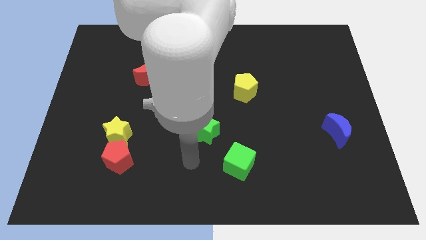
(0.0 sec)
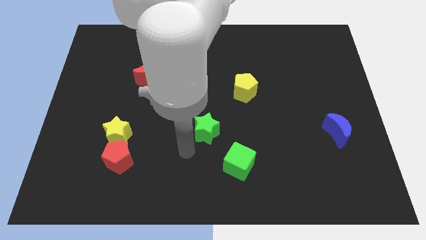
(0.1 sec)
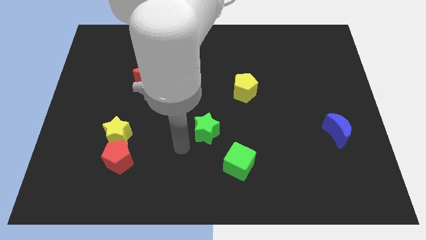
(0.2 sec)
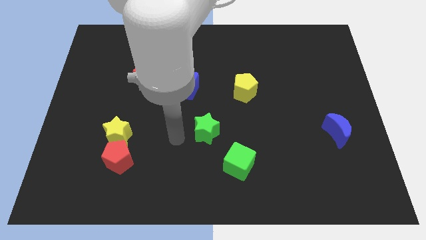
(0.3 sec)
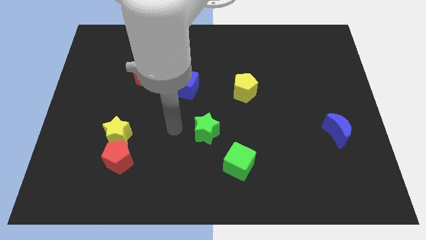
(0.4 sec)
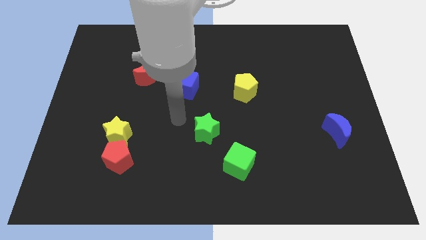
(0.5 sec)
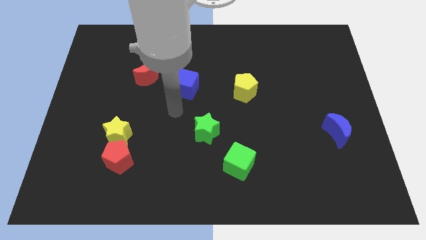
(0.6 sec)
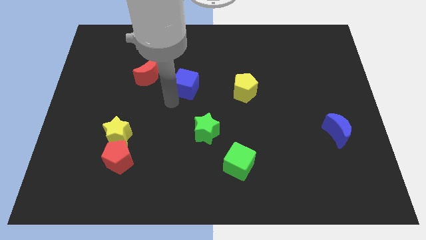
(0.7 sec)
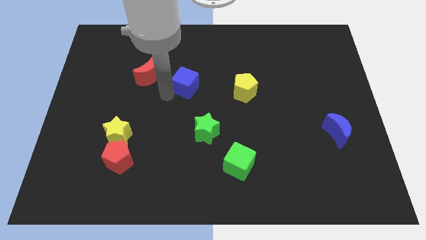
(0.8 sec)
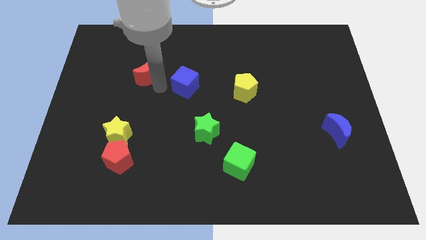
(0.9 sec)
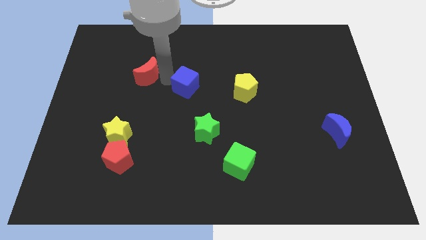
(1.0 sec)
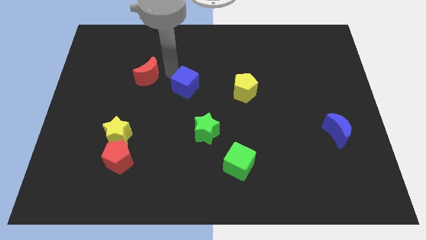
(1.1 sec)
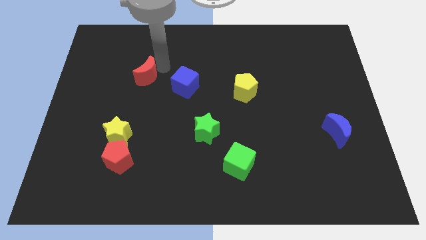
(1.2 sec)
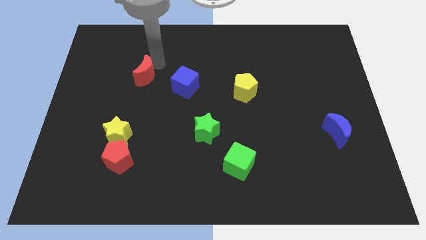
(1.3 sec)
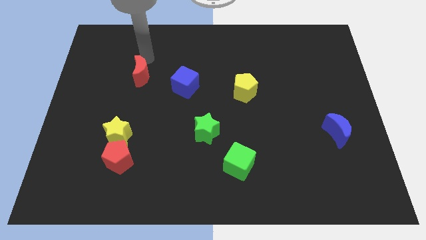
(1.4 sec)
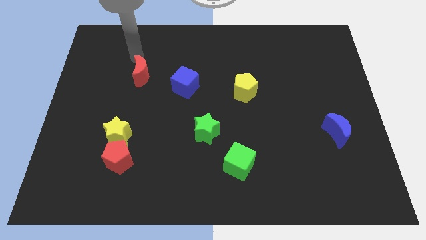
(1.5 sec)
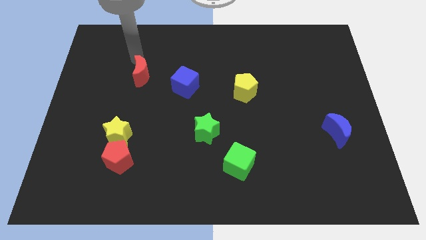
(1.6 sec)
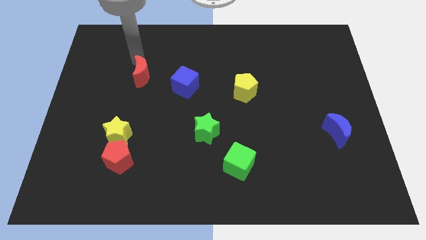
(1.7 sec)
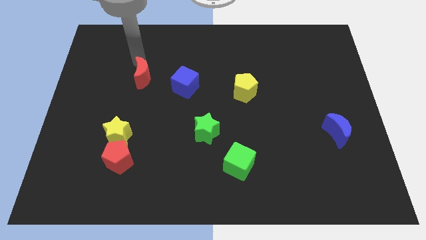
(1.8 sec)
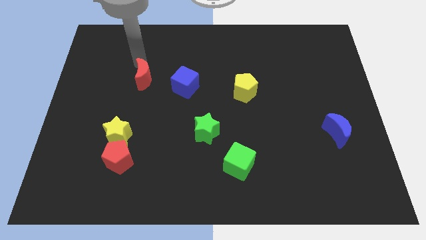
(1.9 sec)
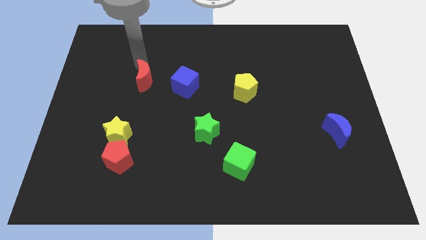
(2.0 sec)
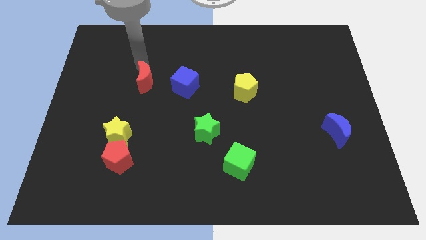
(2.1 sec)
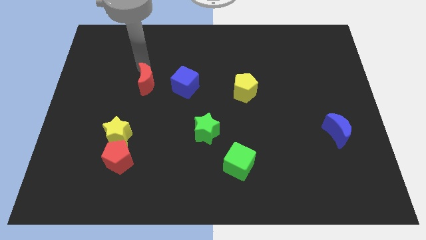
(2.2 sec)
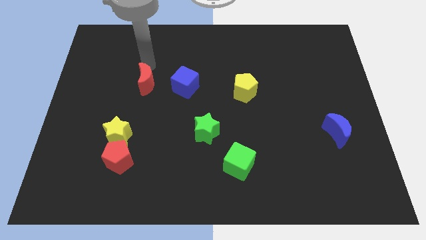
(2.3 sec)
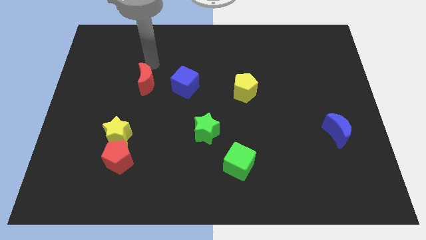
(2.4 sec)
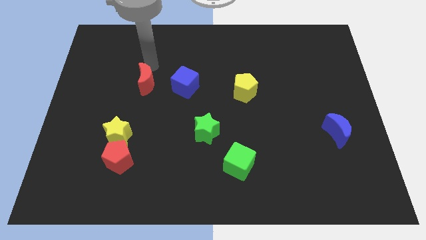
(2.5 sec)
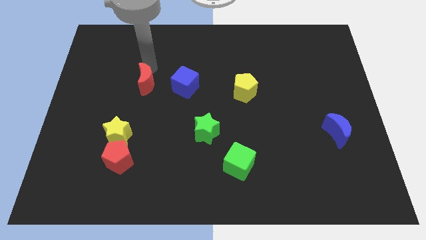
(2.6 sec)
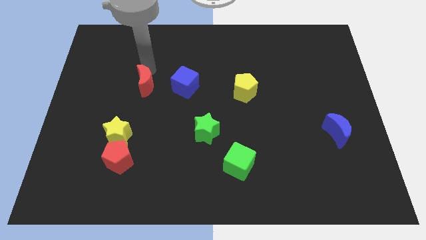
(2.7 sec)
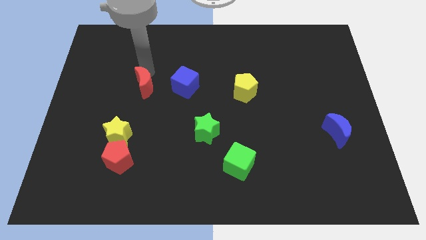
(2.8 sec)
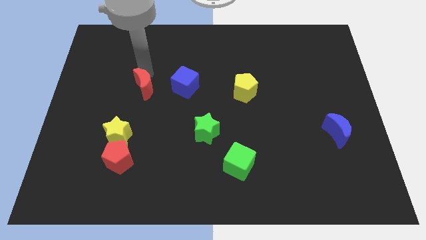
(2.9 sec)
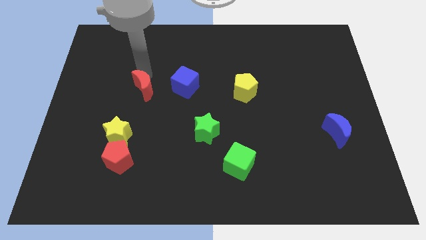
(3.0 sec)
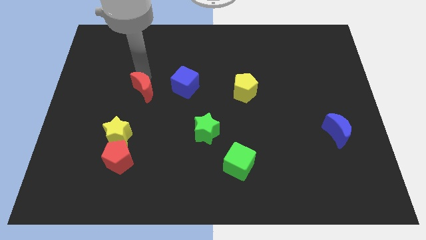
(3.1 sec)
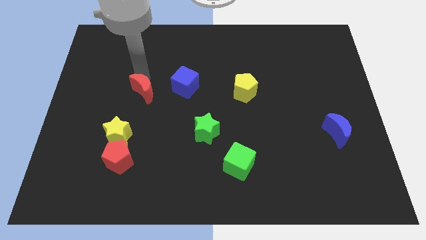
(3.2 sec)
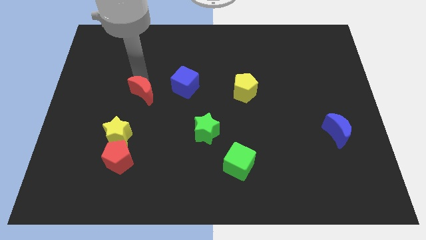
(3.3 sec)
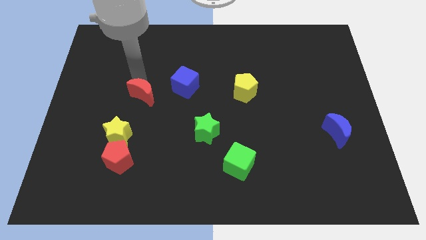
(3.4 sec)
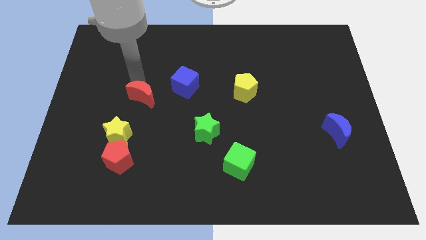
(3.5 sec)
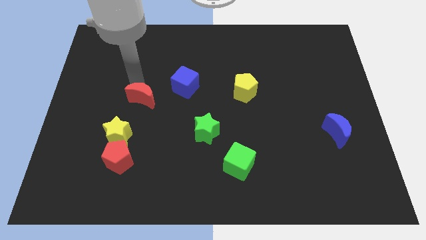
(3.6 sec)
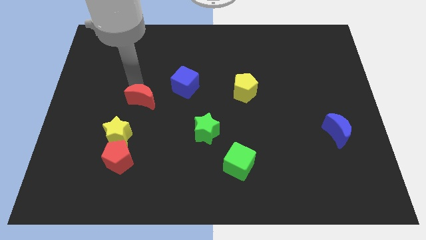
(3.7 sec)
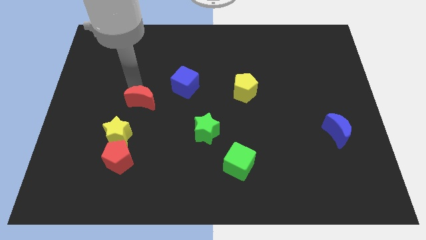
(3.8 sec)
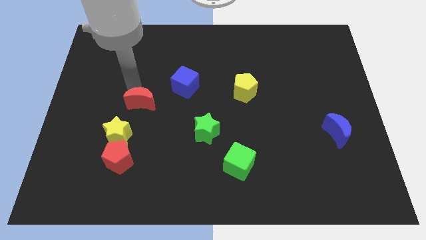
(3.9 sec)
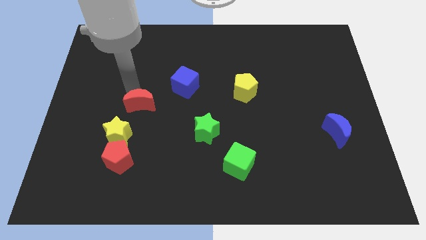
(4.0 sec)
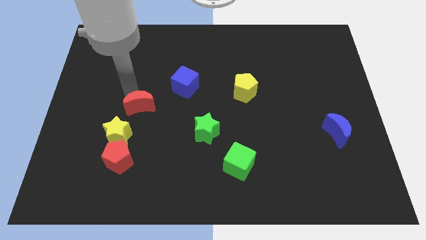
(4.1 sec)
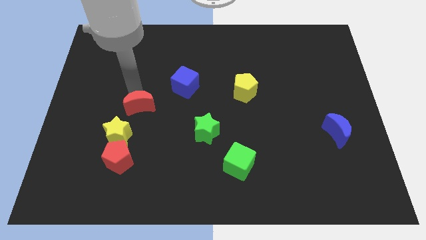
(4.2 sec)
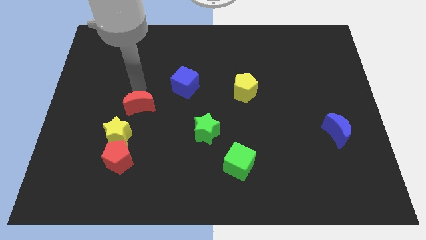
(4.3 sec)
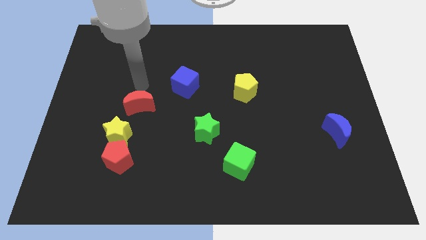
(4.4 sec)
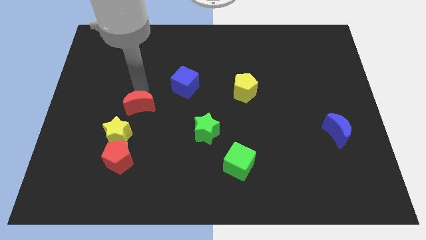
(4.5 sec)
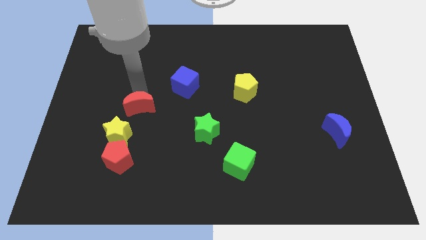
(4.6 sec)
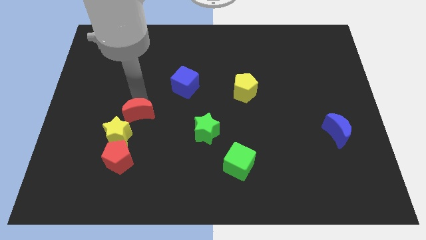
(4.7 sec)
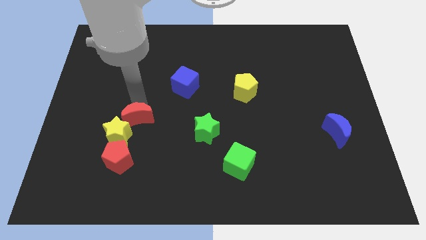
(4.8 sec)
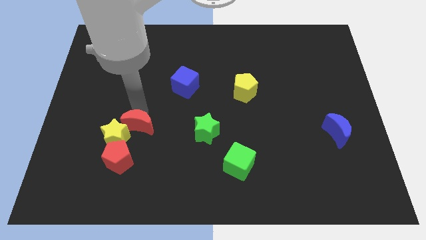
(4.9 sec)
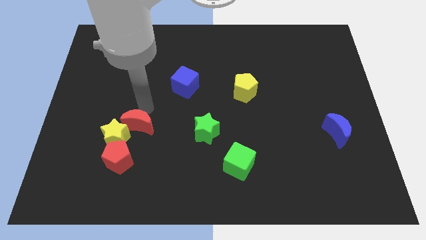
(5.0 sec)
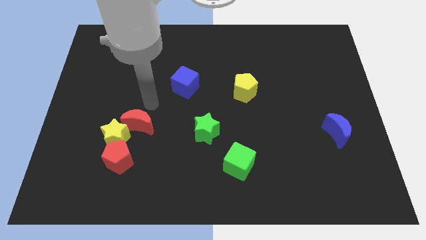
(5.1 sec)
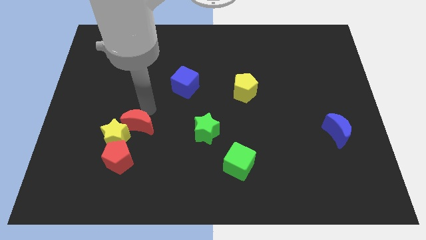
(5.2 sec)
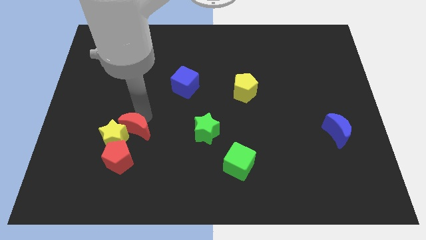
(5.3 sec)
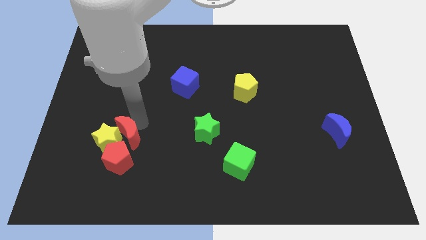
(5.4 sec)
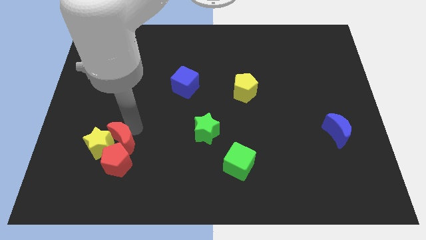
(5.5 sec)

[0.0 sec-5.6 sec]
push the red moon to the red pentagon

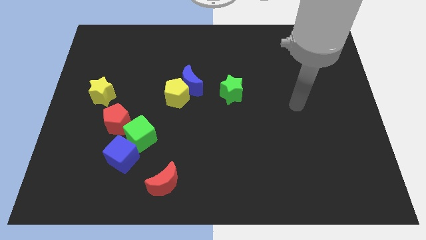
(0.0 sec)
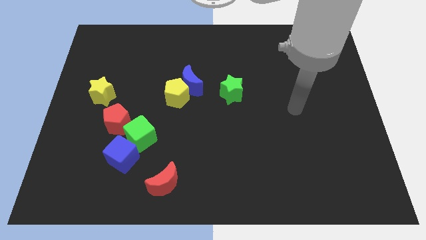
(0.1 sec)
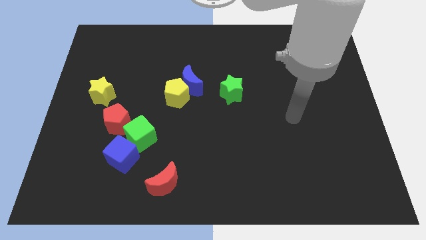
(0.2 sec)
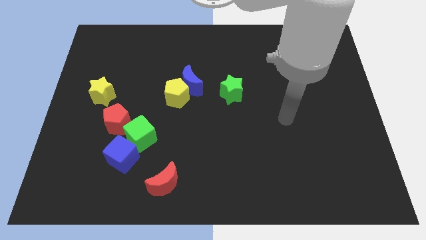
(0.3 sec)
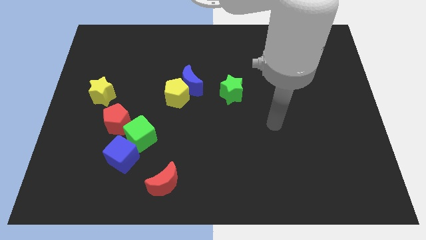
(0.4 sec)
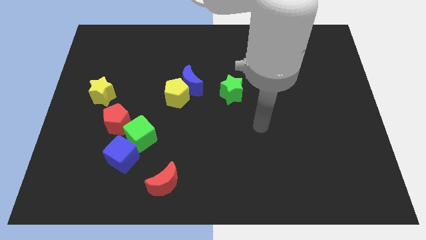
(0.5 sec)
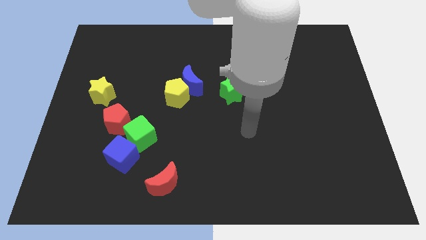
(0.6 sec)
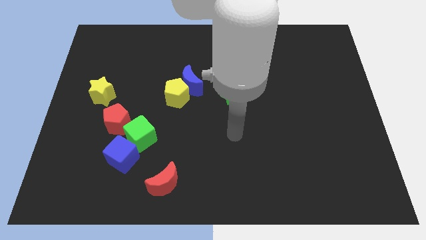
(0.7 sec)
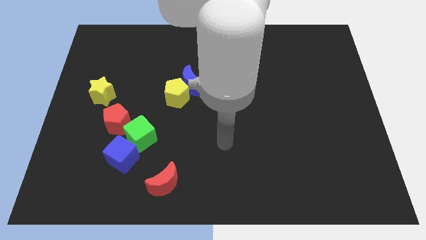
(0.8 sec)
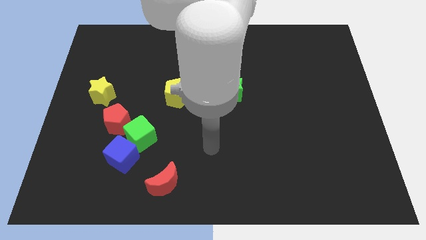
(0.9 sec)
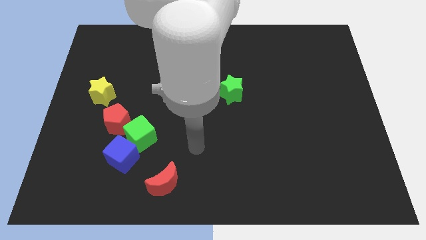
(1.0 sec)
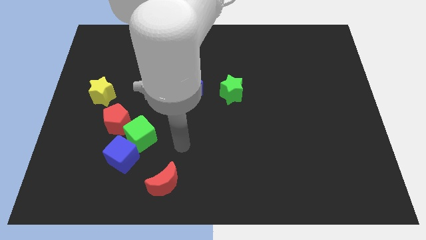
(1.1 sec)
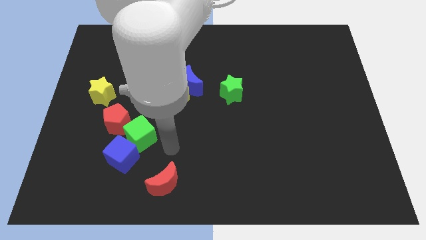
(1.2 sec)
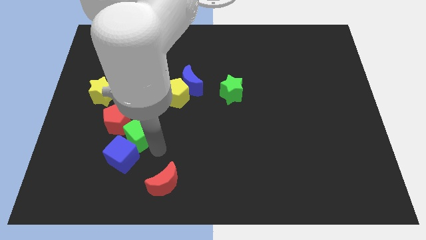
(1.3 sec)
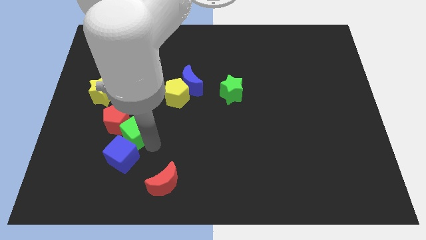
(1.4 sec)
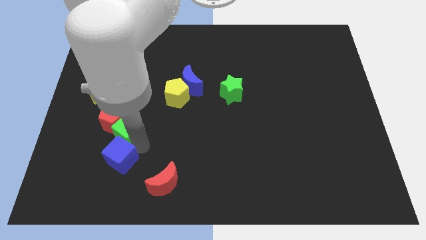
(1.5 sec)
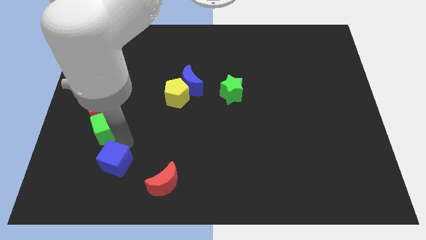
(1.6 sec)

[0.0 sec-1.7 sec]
move the red pentagon next to the yellow star
